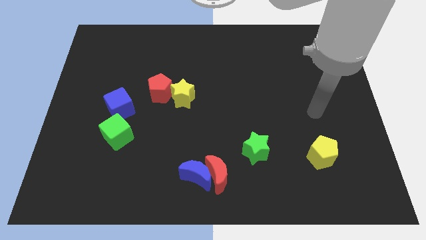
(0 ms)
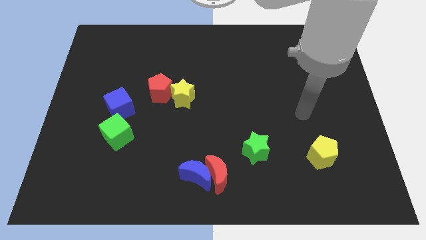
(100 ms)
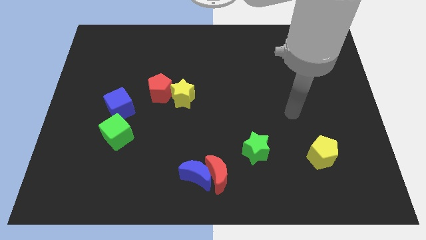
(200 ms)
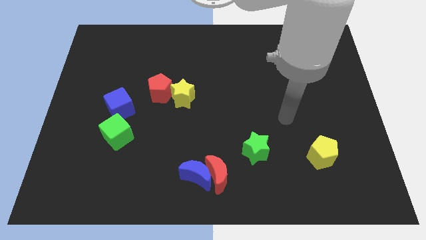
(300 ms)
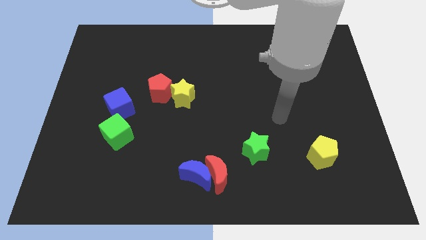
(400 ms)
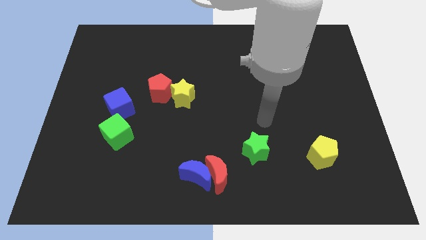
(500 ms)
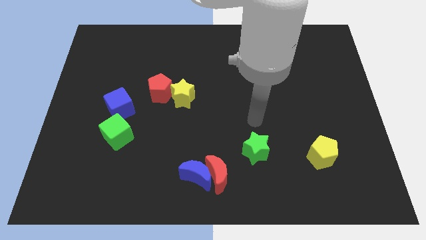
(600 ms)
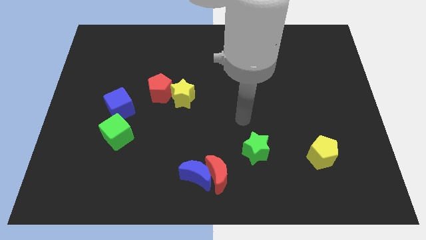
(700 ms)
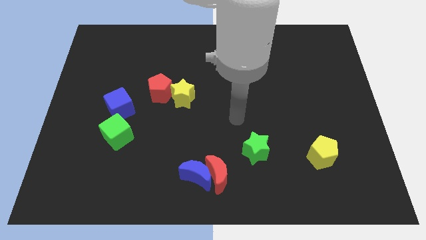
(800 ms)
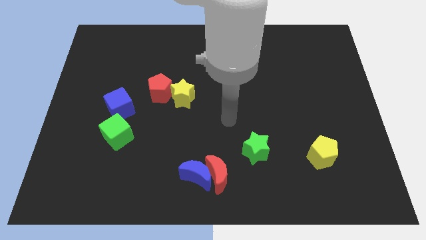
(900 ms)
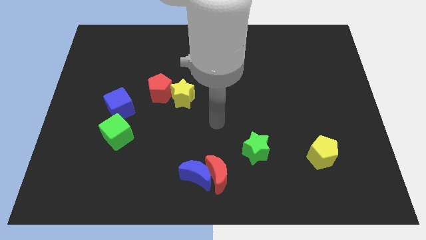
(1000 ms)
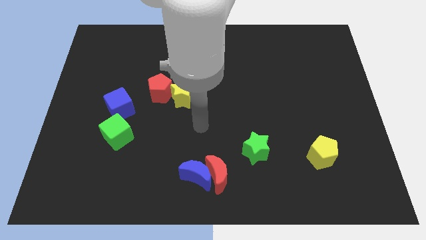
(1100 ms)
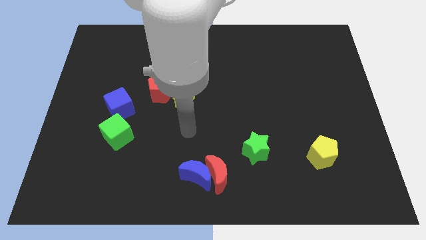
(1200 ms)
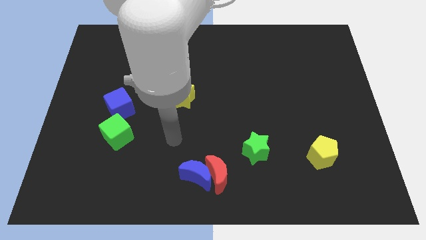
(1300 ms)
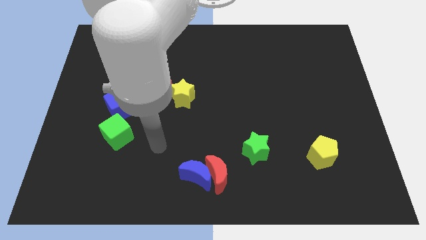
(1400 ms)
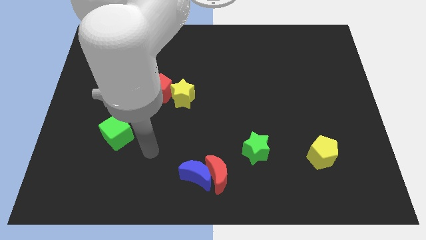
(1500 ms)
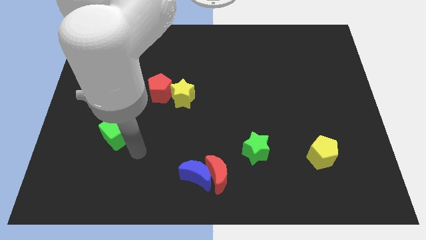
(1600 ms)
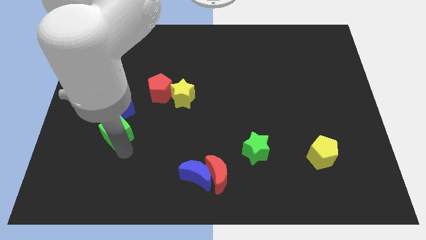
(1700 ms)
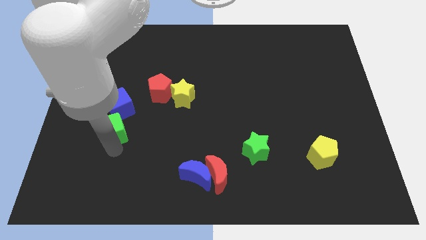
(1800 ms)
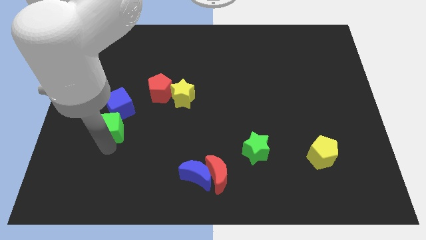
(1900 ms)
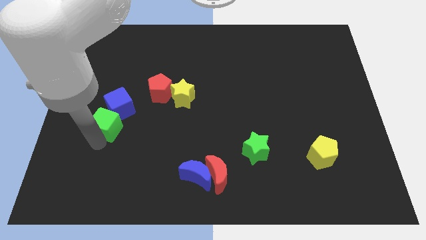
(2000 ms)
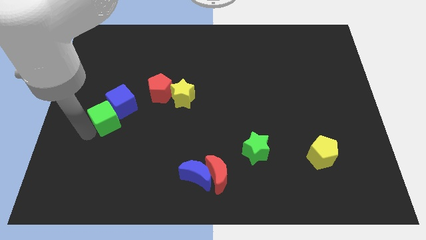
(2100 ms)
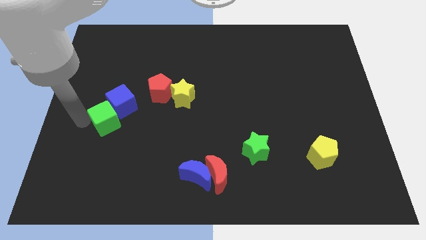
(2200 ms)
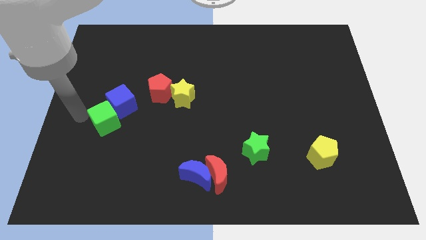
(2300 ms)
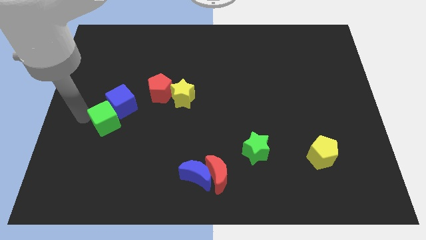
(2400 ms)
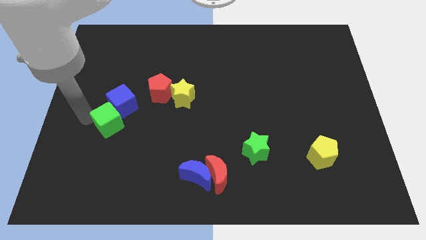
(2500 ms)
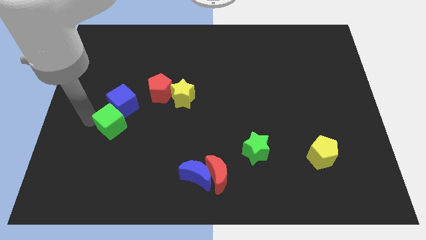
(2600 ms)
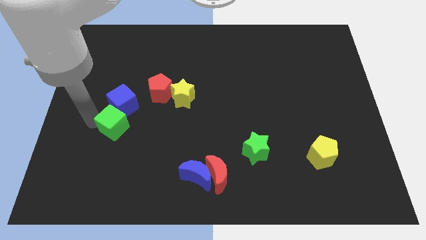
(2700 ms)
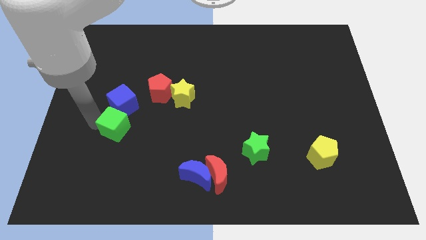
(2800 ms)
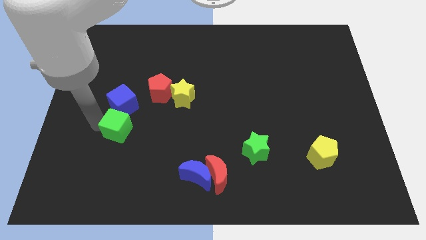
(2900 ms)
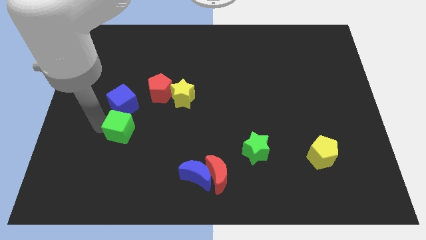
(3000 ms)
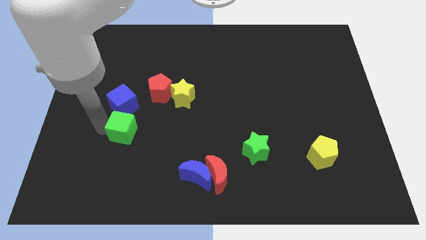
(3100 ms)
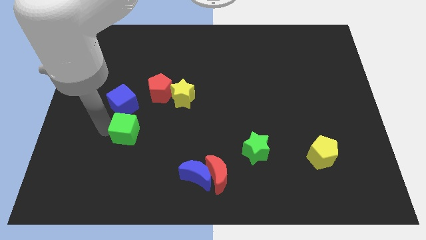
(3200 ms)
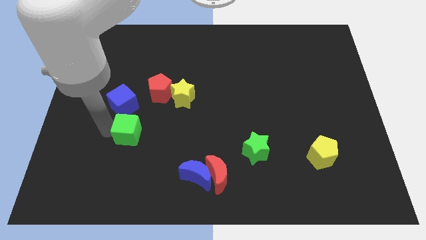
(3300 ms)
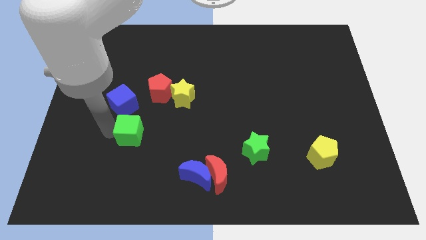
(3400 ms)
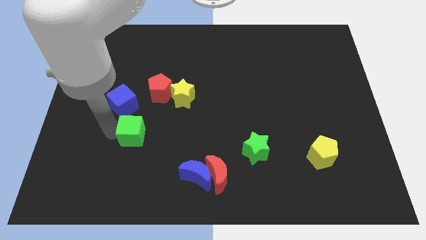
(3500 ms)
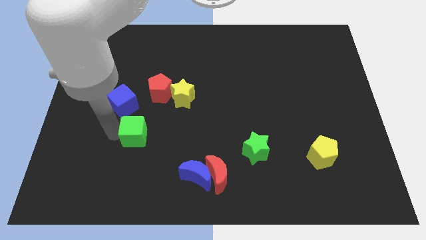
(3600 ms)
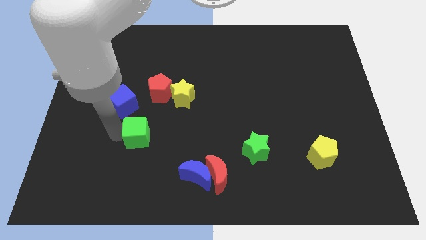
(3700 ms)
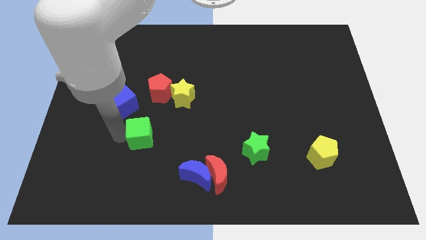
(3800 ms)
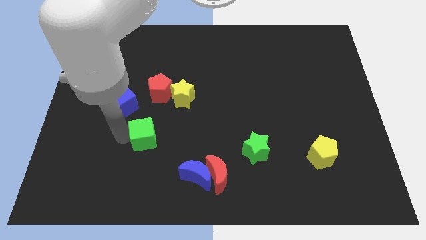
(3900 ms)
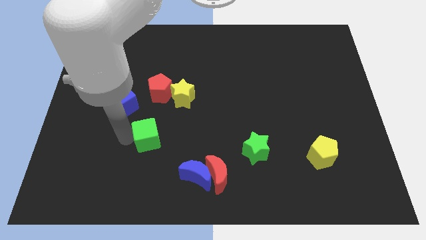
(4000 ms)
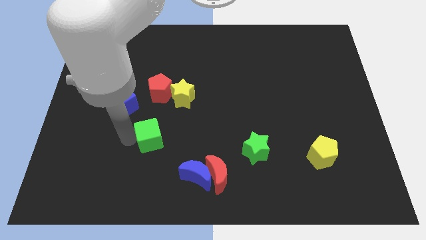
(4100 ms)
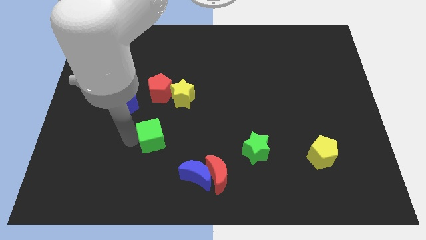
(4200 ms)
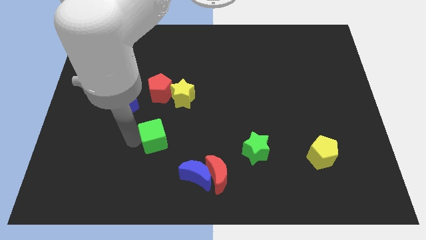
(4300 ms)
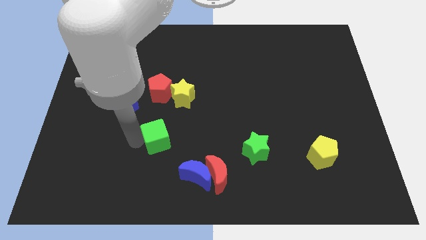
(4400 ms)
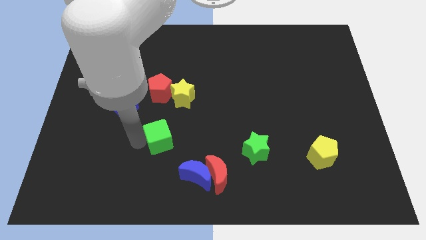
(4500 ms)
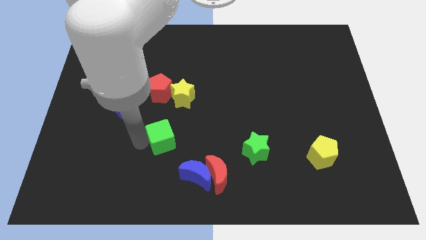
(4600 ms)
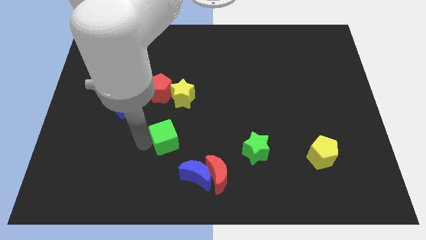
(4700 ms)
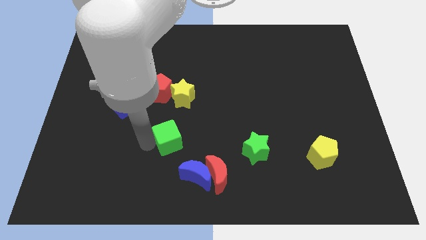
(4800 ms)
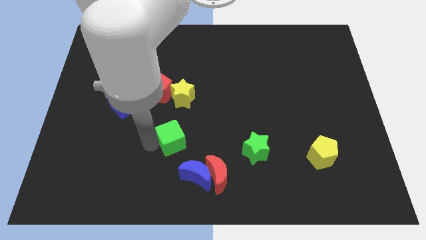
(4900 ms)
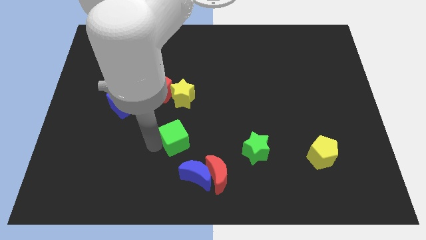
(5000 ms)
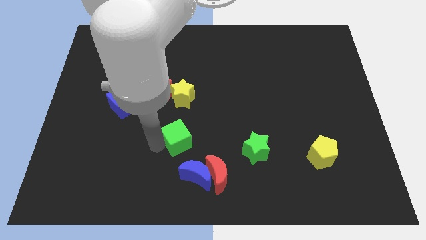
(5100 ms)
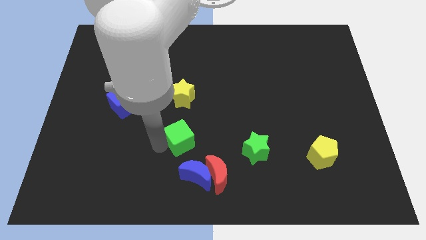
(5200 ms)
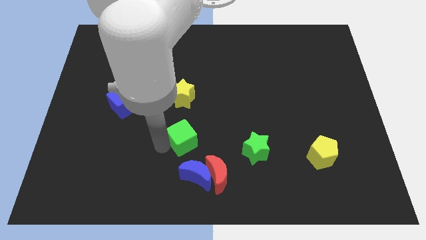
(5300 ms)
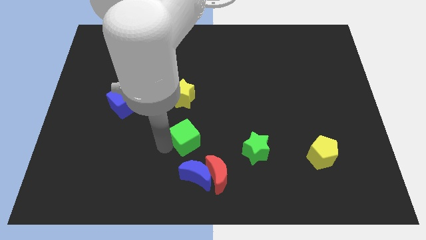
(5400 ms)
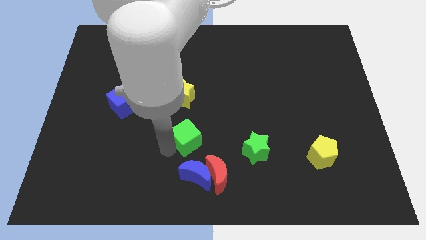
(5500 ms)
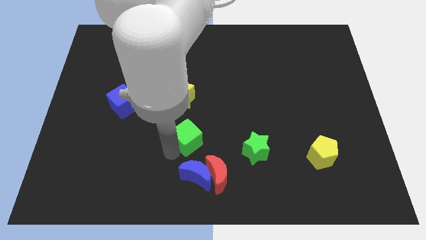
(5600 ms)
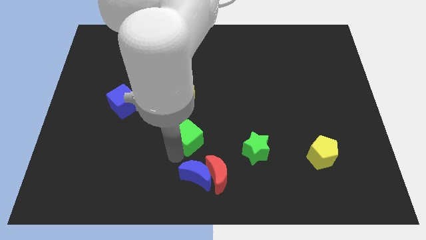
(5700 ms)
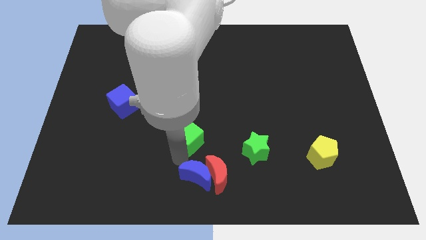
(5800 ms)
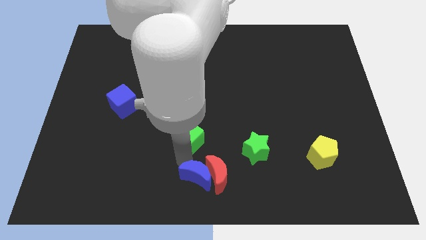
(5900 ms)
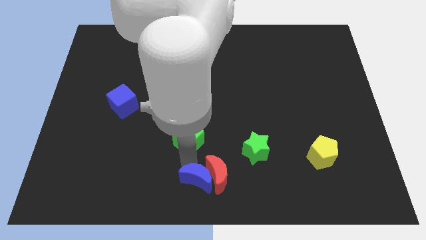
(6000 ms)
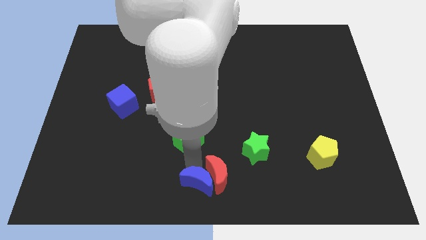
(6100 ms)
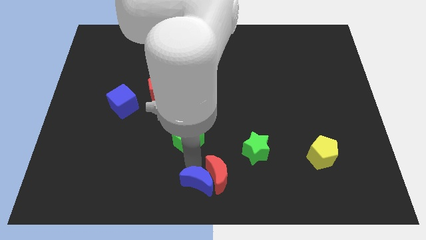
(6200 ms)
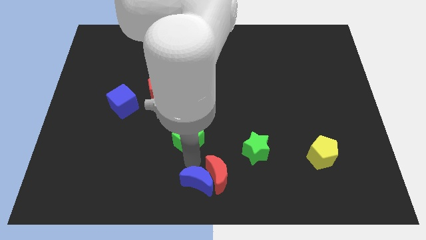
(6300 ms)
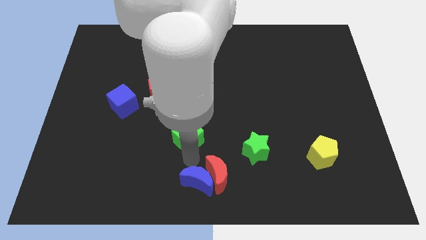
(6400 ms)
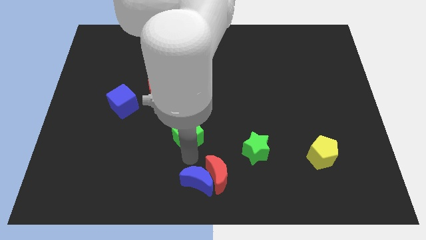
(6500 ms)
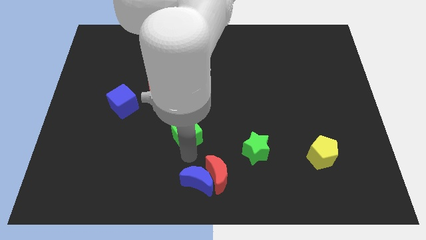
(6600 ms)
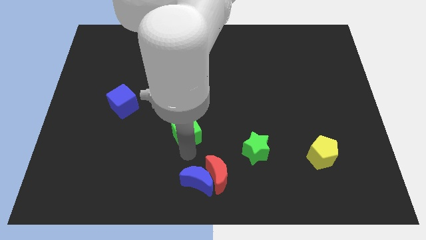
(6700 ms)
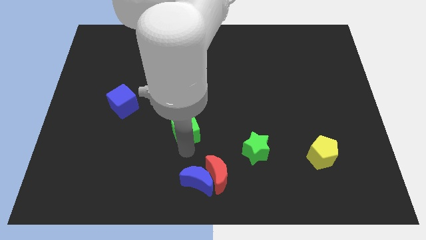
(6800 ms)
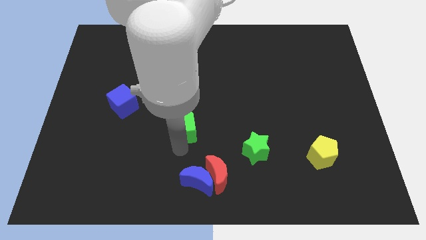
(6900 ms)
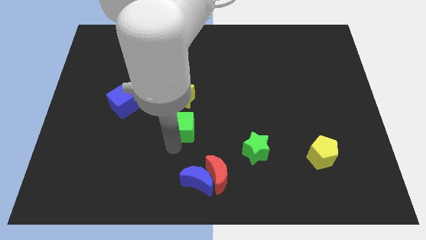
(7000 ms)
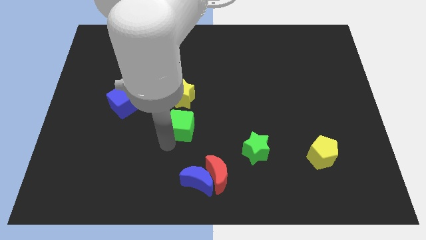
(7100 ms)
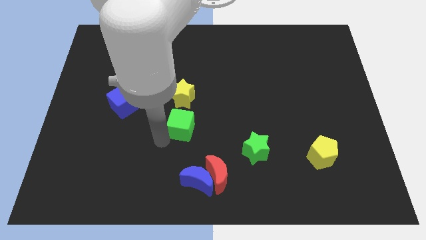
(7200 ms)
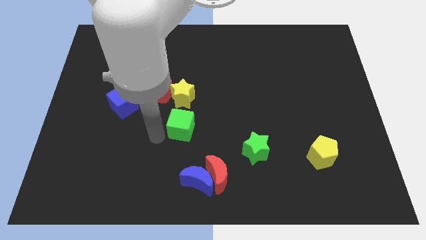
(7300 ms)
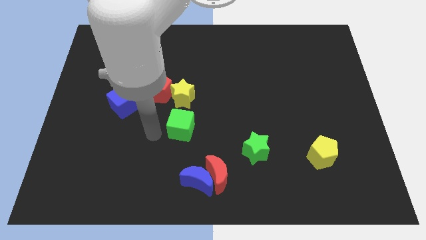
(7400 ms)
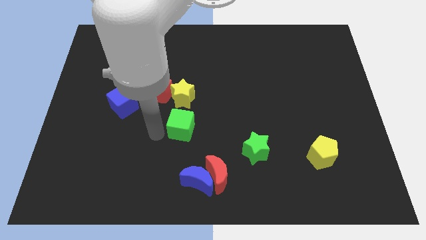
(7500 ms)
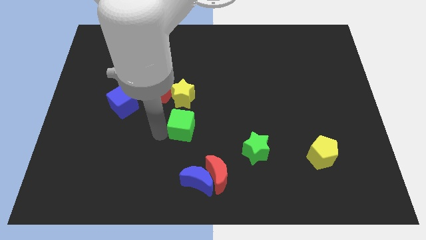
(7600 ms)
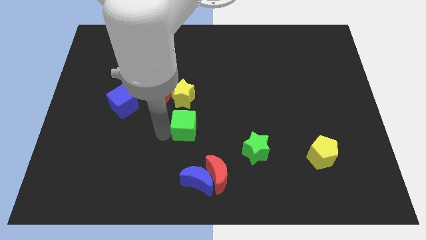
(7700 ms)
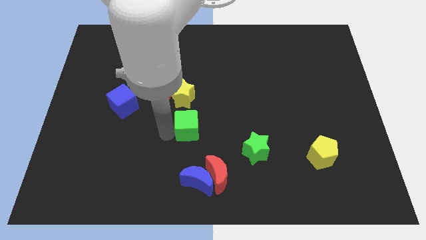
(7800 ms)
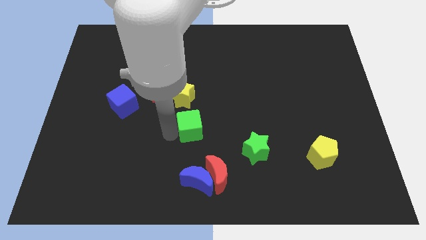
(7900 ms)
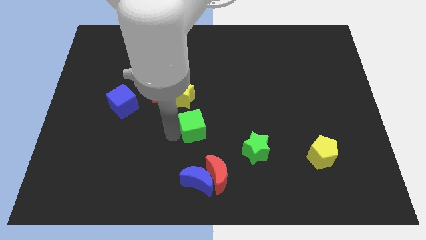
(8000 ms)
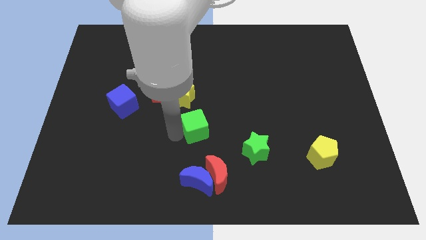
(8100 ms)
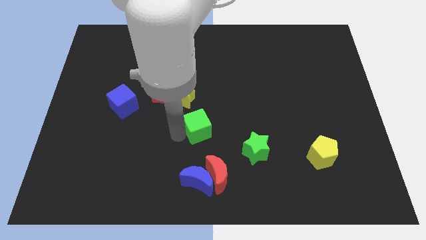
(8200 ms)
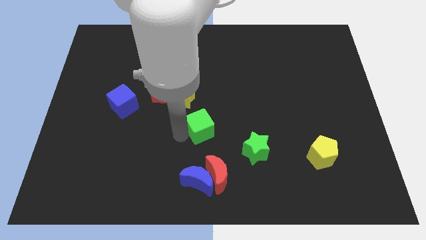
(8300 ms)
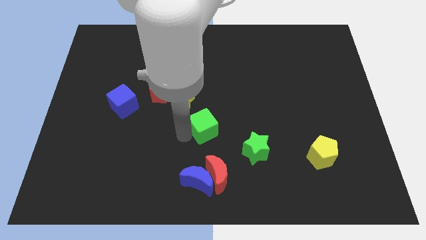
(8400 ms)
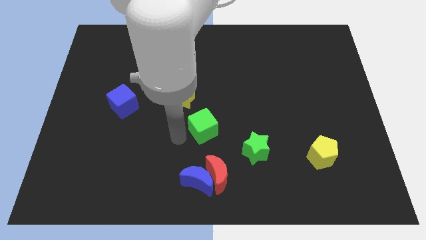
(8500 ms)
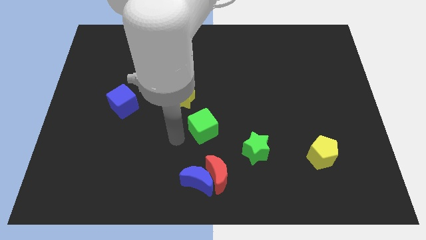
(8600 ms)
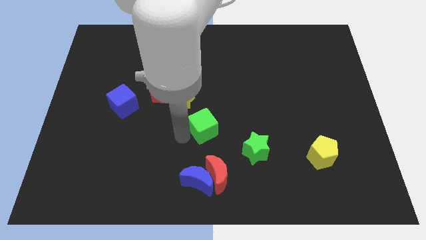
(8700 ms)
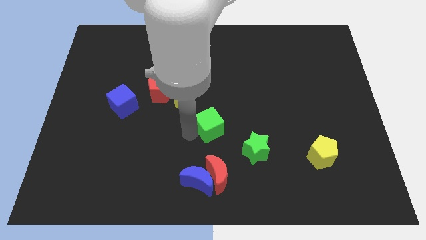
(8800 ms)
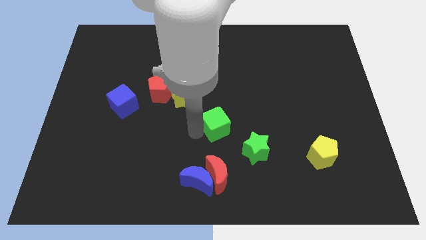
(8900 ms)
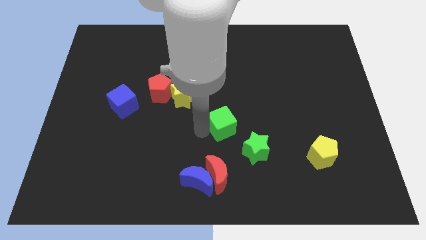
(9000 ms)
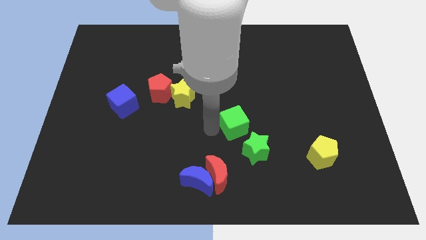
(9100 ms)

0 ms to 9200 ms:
slide the green cube to the top side of the green star
